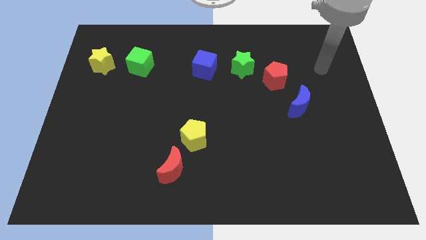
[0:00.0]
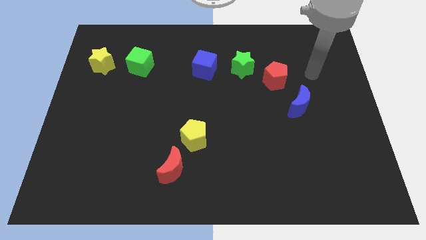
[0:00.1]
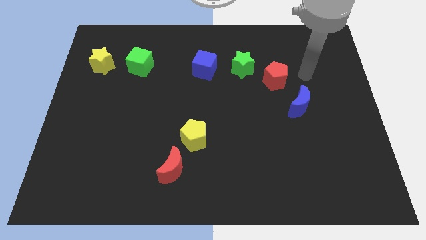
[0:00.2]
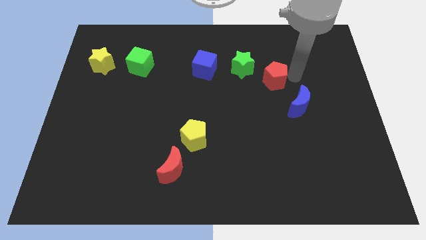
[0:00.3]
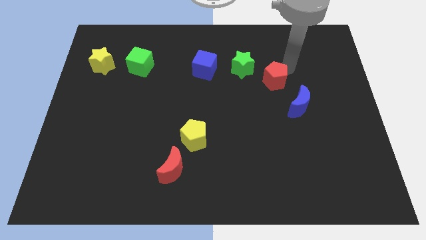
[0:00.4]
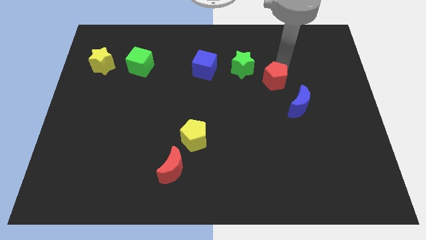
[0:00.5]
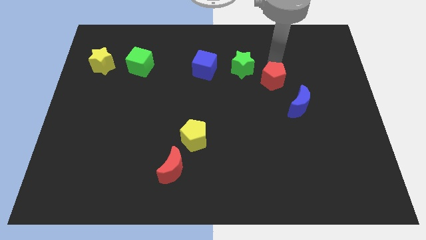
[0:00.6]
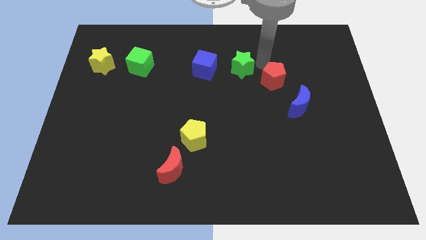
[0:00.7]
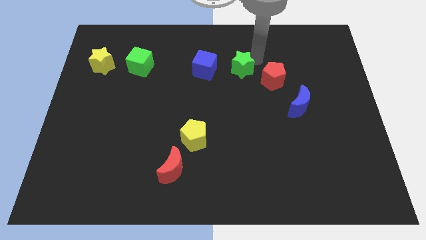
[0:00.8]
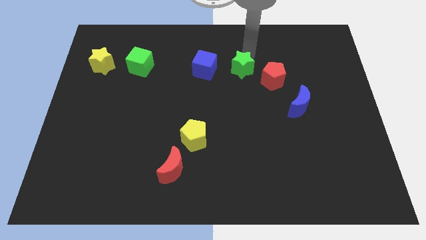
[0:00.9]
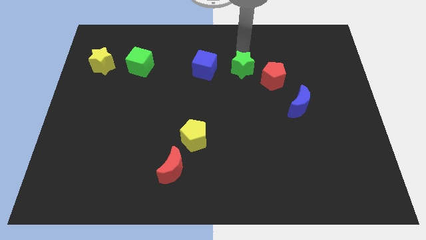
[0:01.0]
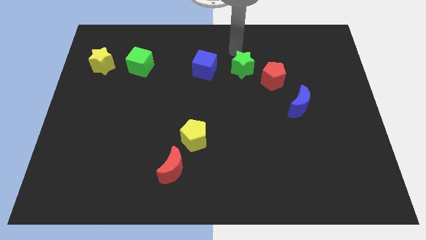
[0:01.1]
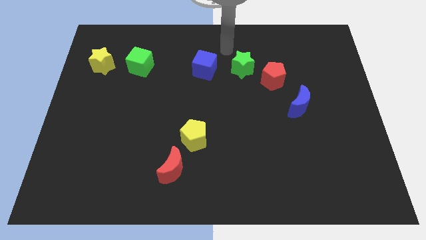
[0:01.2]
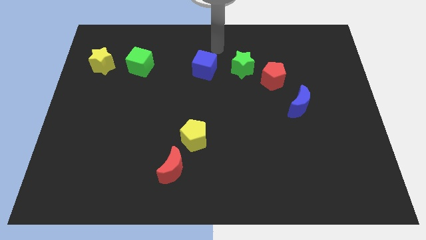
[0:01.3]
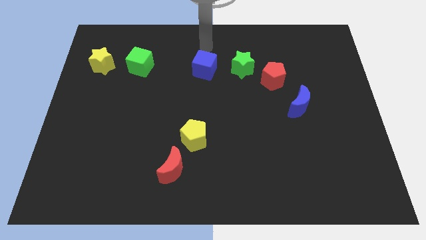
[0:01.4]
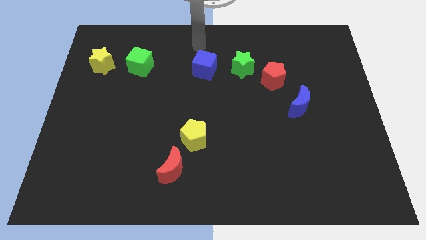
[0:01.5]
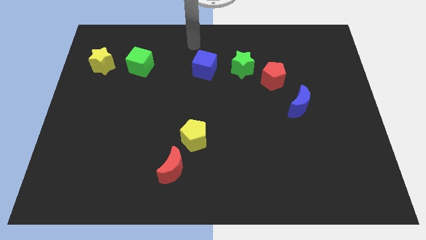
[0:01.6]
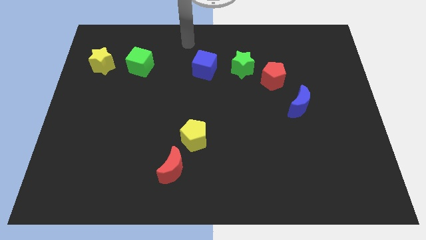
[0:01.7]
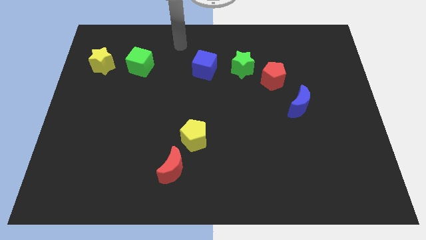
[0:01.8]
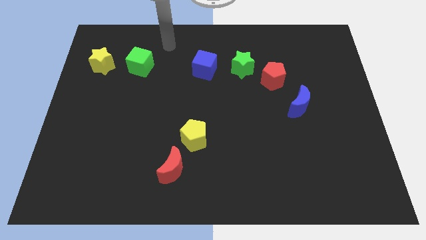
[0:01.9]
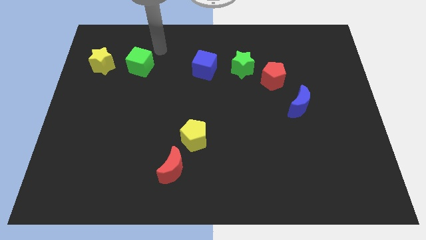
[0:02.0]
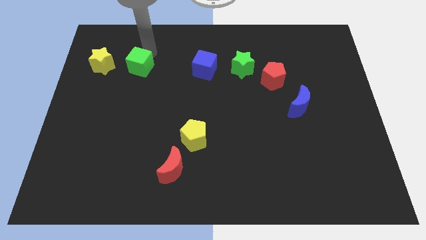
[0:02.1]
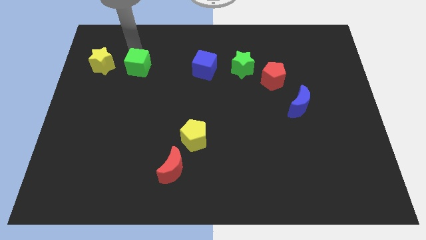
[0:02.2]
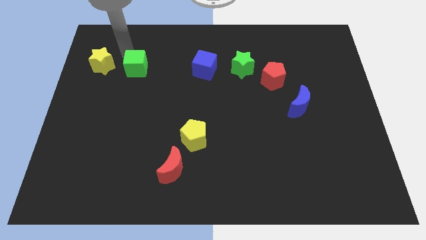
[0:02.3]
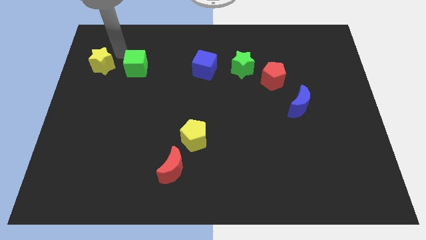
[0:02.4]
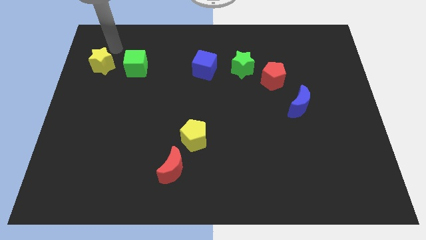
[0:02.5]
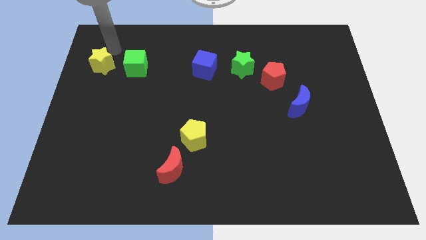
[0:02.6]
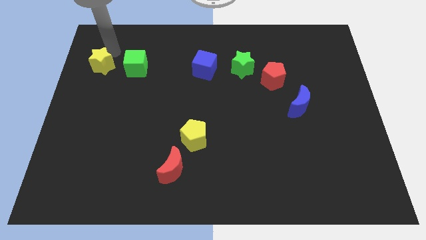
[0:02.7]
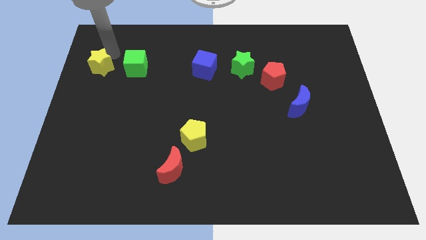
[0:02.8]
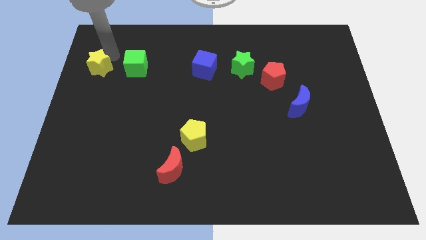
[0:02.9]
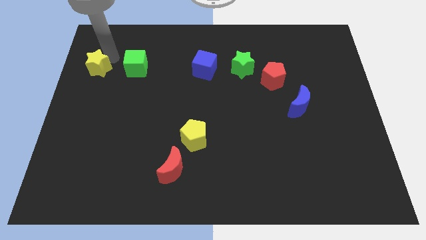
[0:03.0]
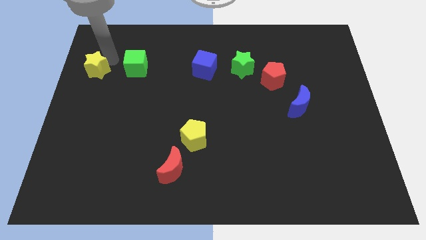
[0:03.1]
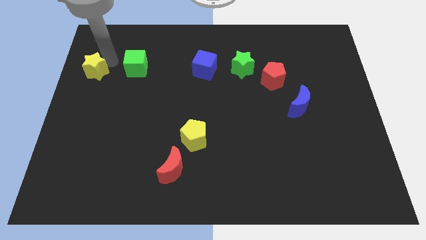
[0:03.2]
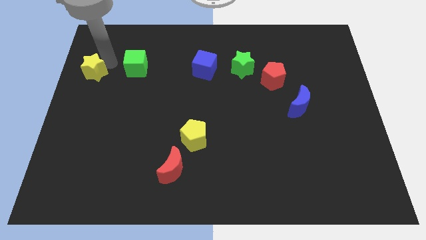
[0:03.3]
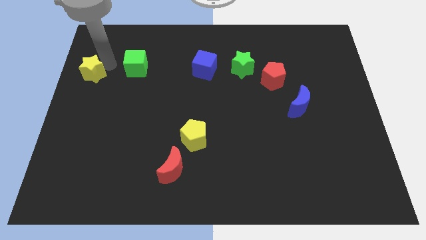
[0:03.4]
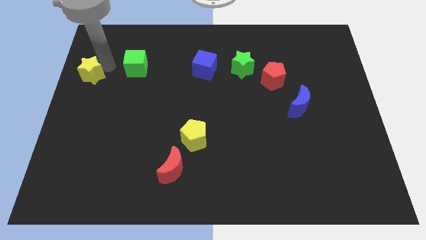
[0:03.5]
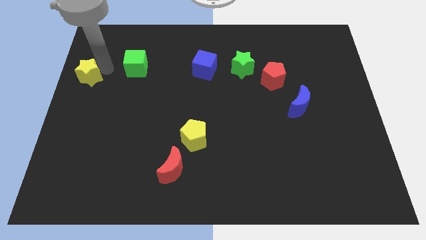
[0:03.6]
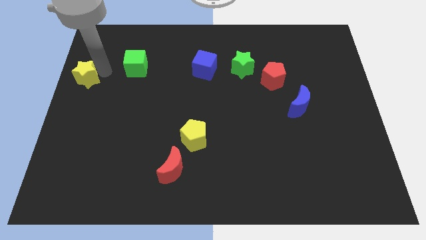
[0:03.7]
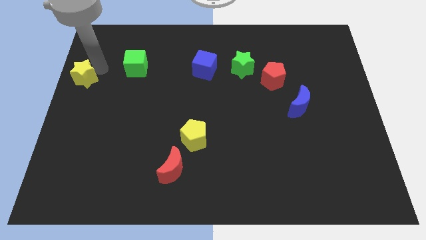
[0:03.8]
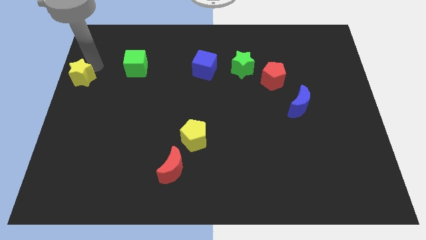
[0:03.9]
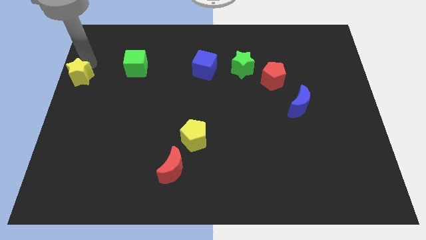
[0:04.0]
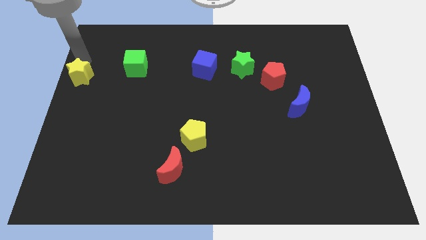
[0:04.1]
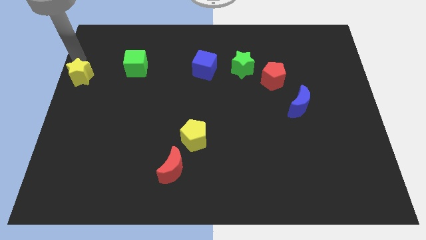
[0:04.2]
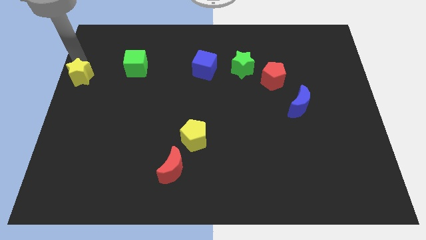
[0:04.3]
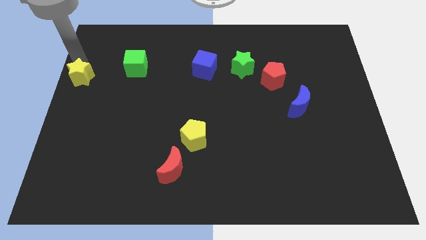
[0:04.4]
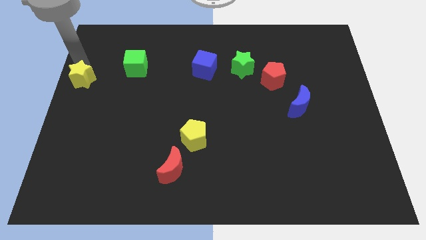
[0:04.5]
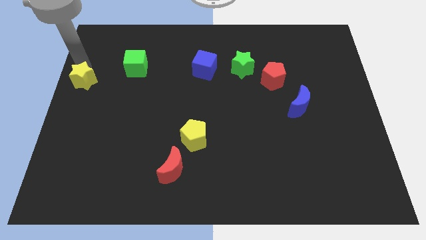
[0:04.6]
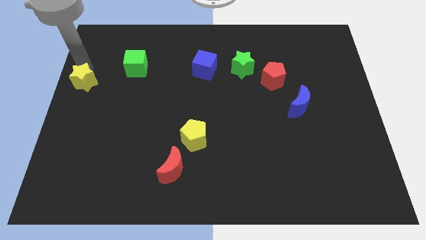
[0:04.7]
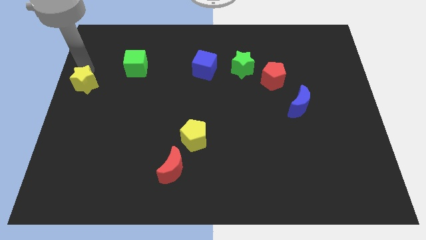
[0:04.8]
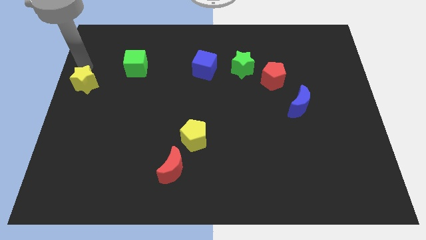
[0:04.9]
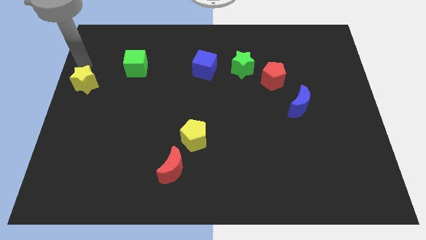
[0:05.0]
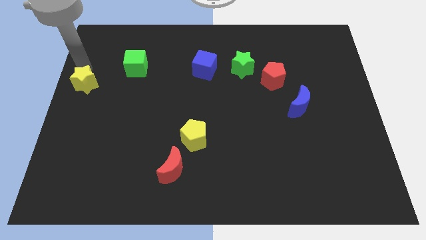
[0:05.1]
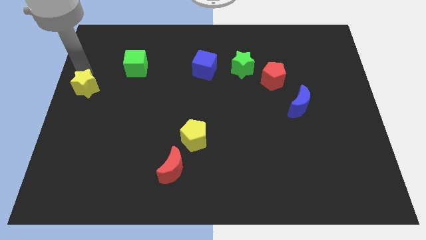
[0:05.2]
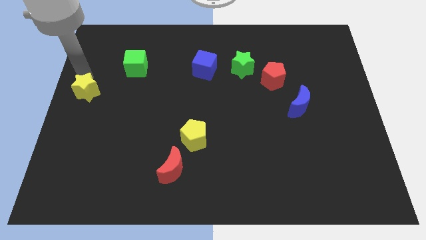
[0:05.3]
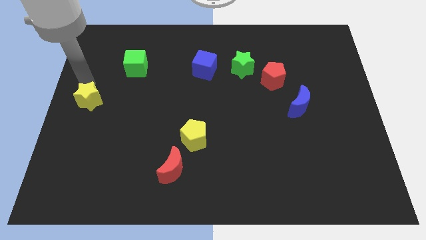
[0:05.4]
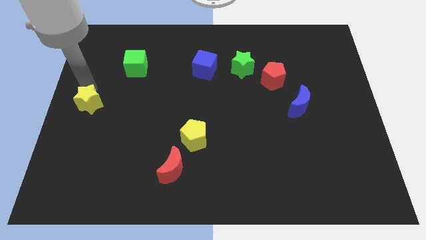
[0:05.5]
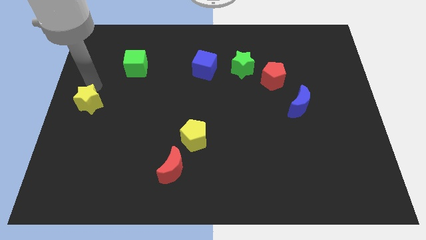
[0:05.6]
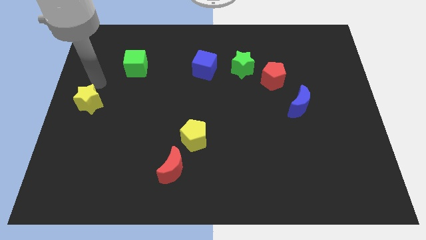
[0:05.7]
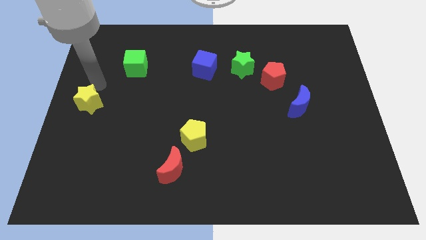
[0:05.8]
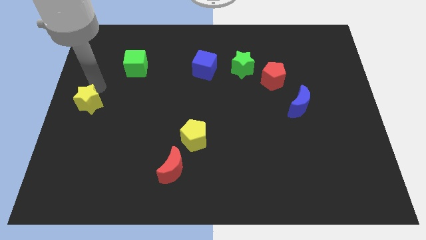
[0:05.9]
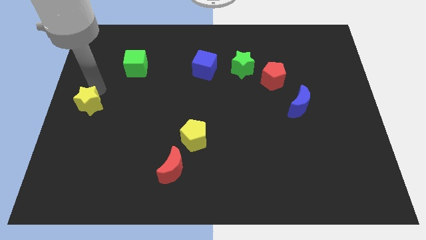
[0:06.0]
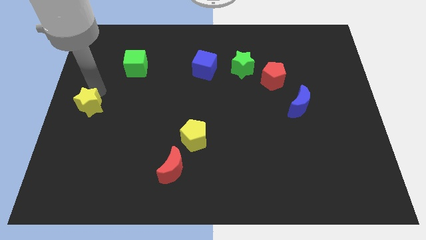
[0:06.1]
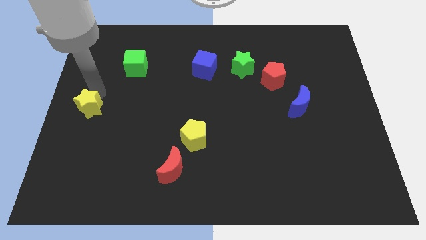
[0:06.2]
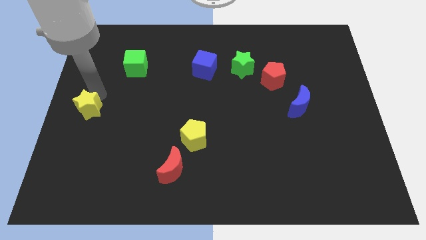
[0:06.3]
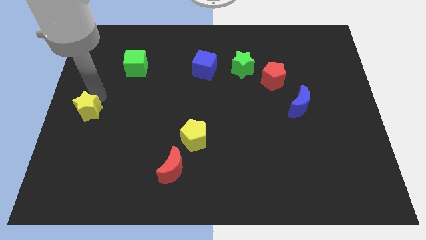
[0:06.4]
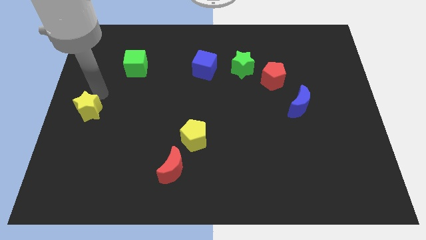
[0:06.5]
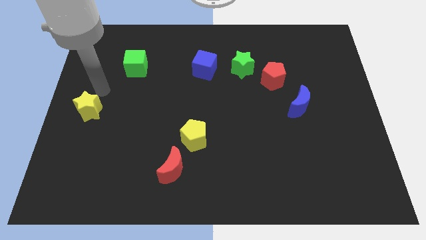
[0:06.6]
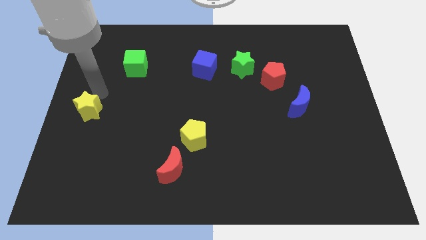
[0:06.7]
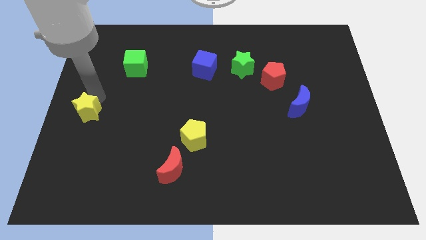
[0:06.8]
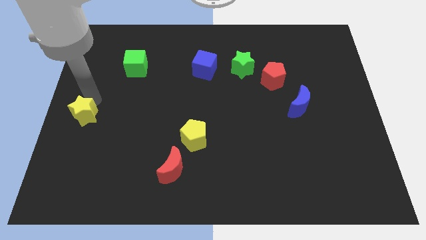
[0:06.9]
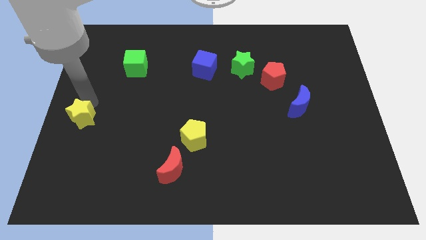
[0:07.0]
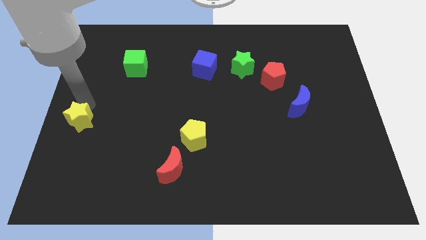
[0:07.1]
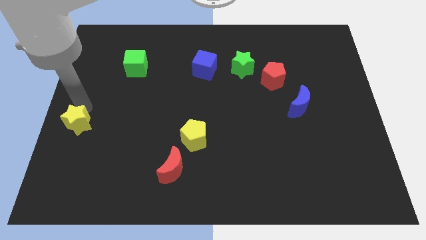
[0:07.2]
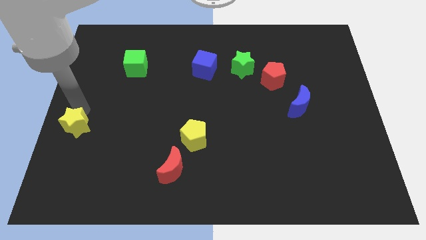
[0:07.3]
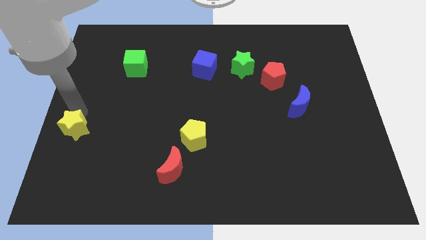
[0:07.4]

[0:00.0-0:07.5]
slide the yellow star downwards

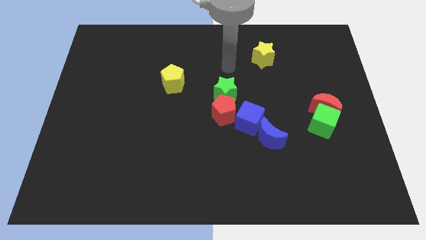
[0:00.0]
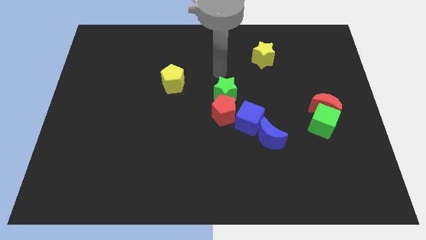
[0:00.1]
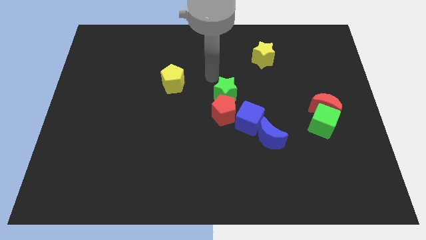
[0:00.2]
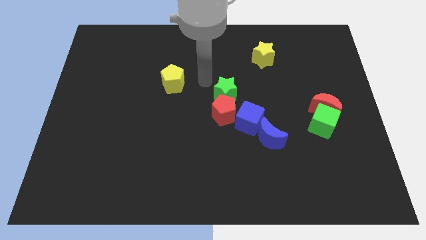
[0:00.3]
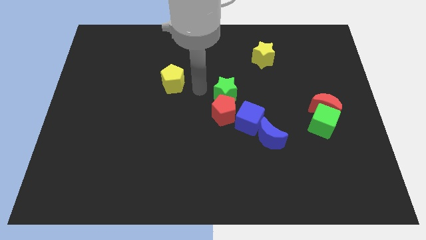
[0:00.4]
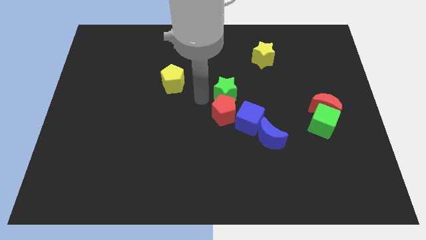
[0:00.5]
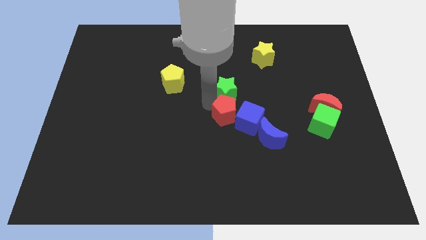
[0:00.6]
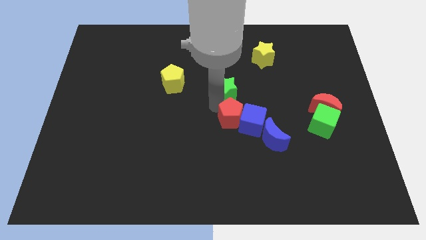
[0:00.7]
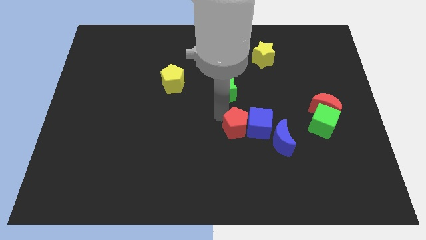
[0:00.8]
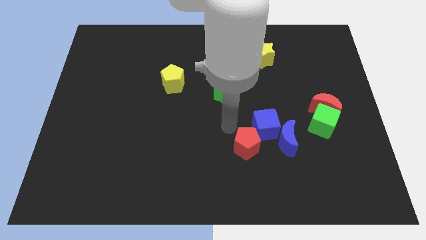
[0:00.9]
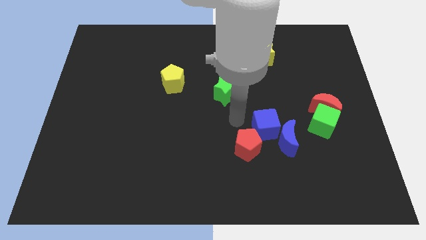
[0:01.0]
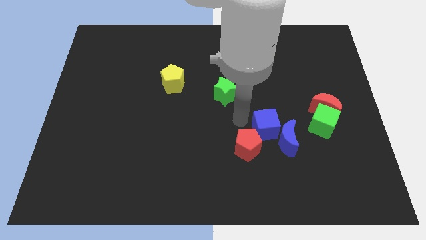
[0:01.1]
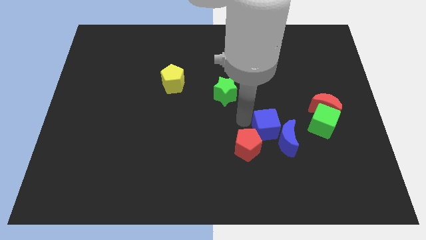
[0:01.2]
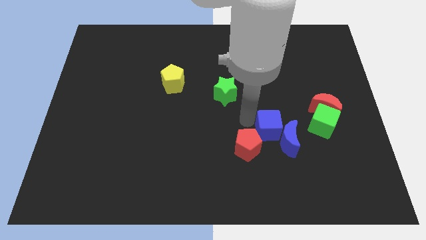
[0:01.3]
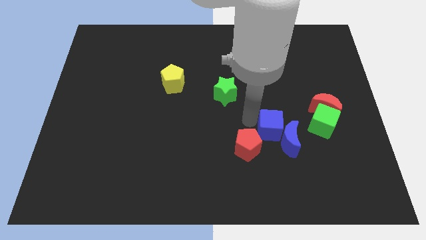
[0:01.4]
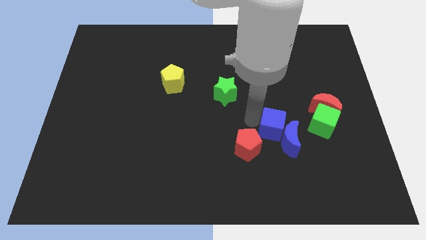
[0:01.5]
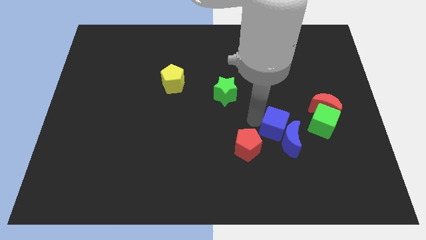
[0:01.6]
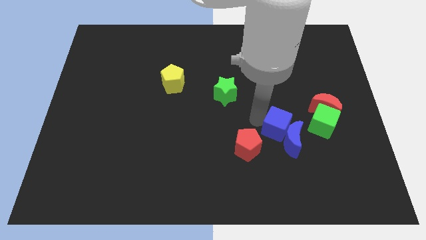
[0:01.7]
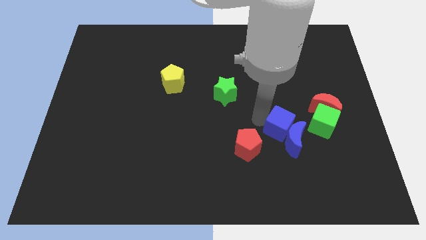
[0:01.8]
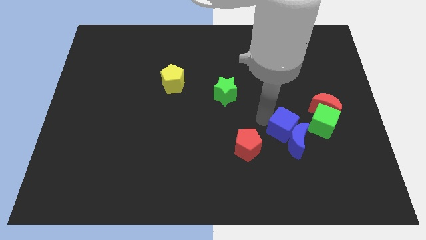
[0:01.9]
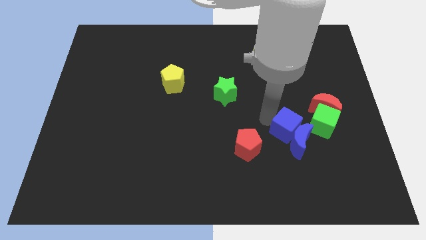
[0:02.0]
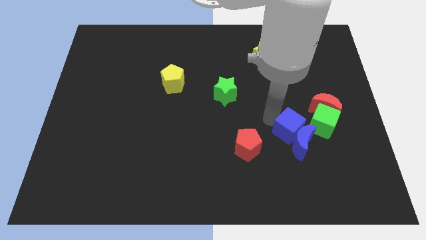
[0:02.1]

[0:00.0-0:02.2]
move the blue cube down and then right somewhat
